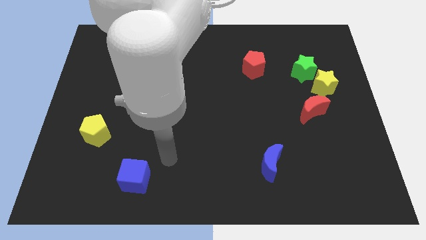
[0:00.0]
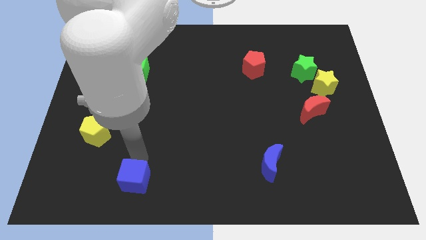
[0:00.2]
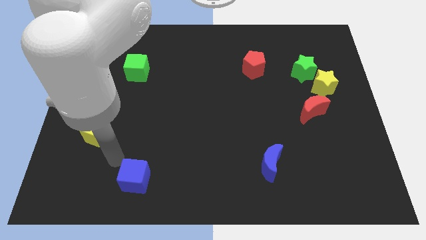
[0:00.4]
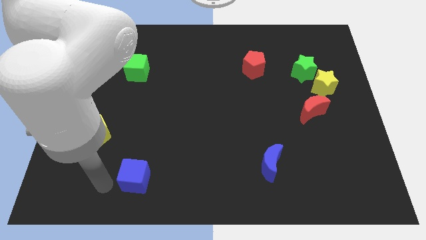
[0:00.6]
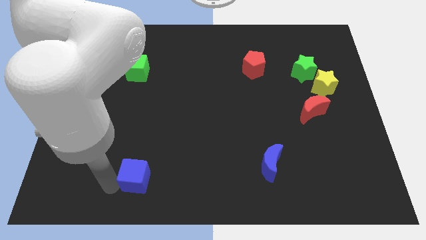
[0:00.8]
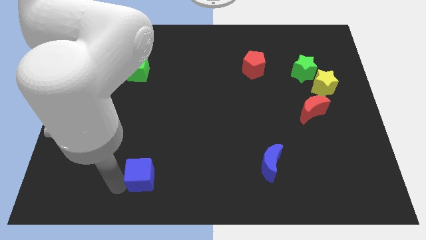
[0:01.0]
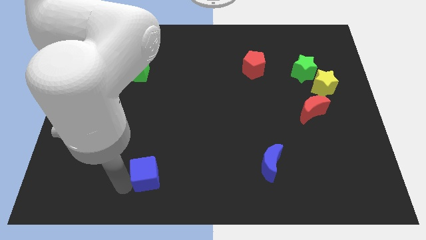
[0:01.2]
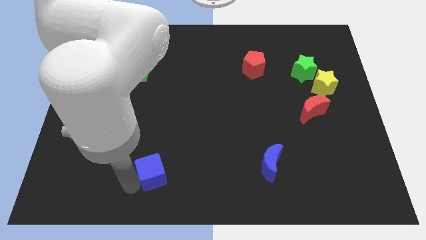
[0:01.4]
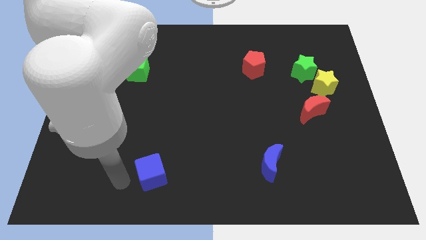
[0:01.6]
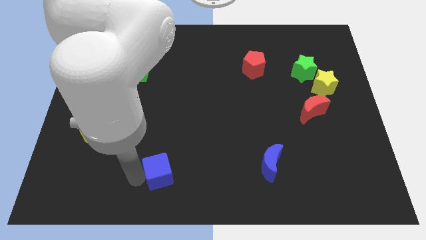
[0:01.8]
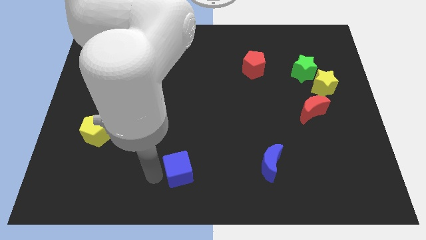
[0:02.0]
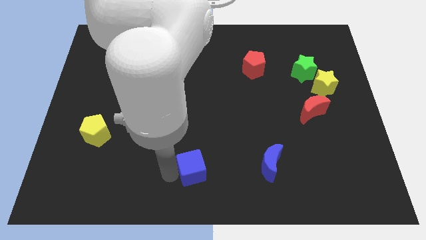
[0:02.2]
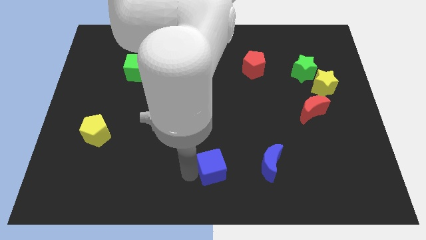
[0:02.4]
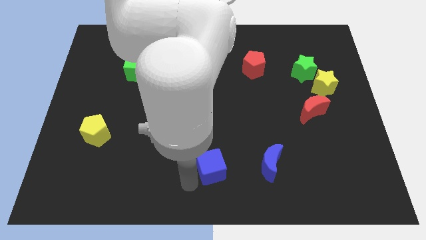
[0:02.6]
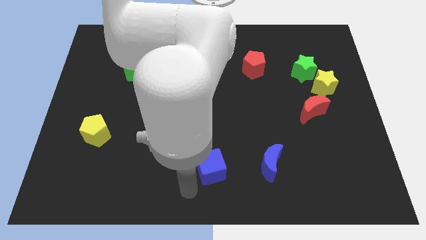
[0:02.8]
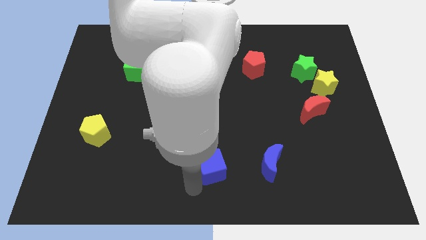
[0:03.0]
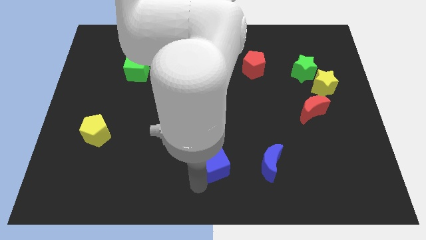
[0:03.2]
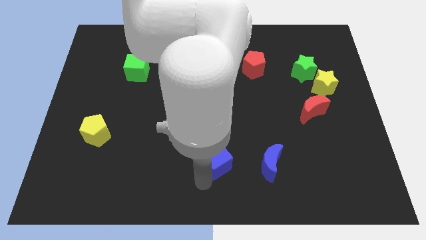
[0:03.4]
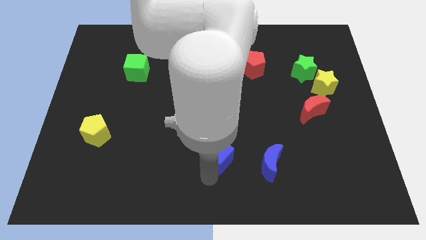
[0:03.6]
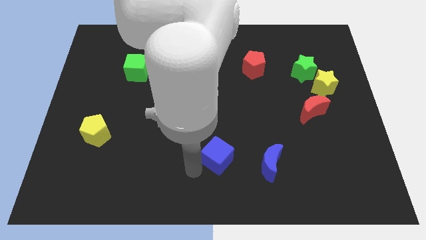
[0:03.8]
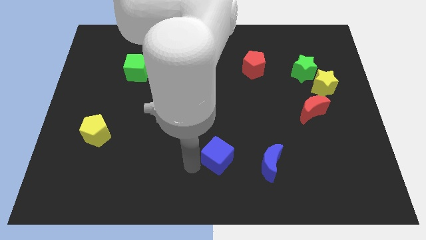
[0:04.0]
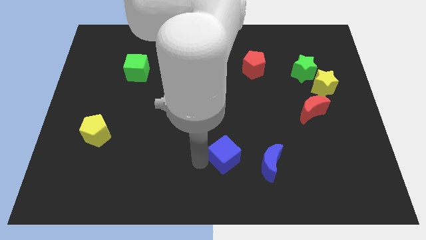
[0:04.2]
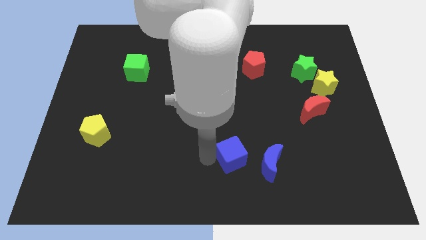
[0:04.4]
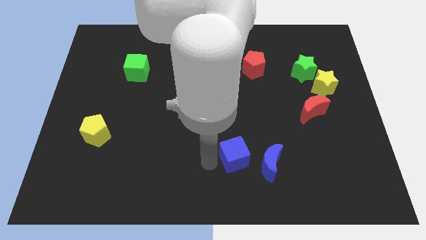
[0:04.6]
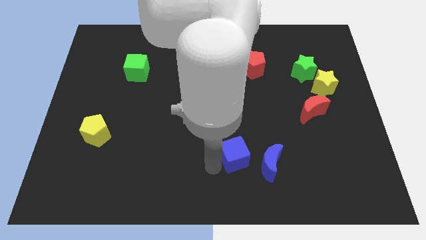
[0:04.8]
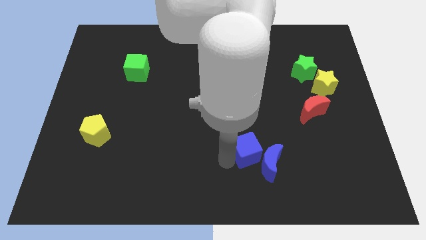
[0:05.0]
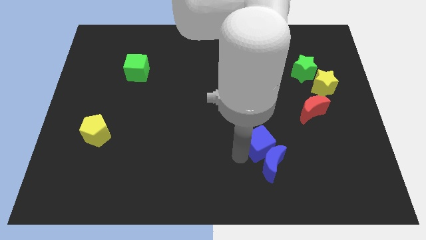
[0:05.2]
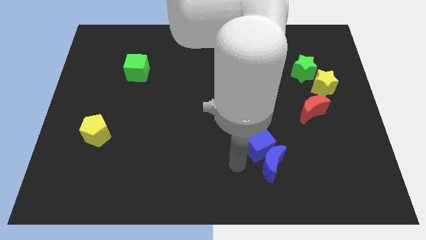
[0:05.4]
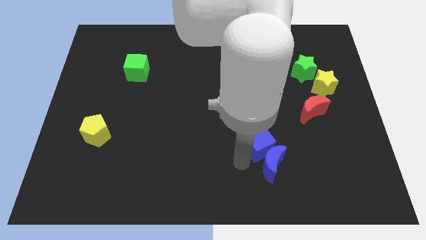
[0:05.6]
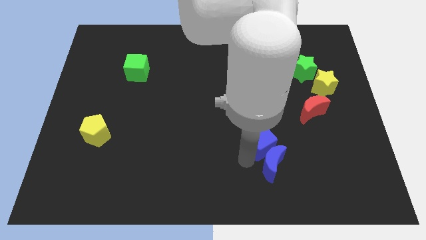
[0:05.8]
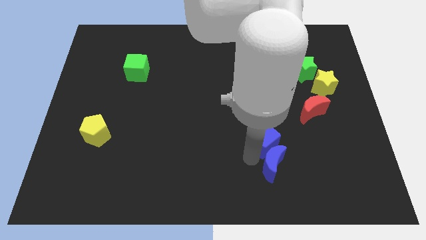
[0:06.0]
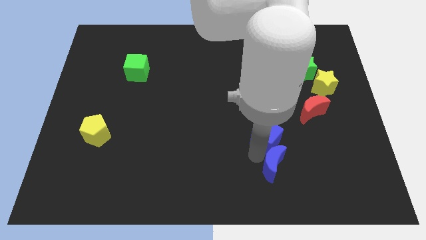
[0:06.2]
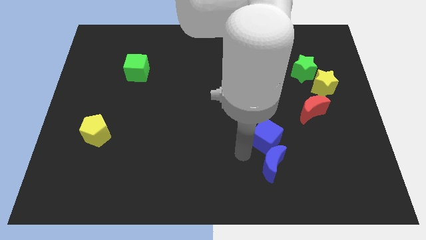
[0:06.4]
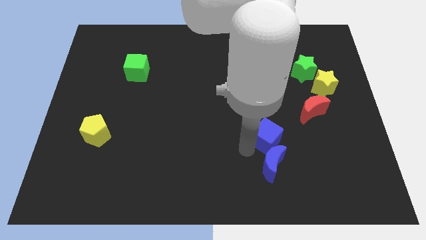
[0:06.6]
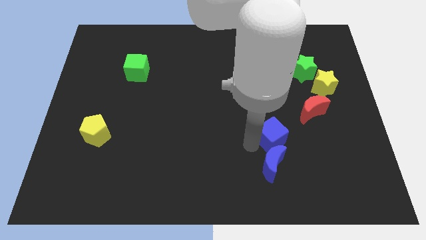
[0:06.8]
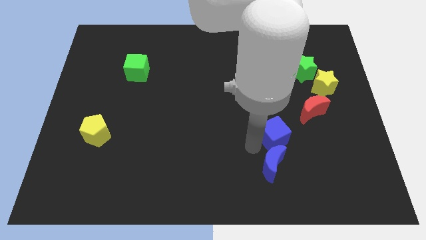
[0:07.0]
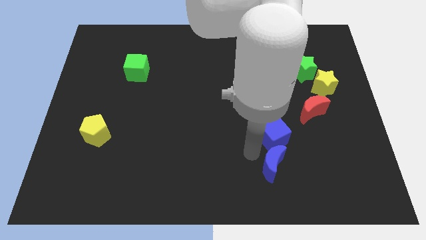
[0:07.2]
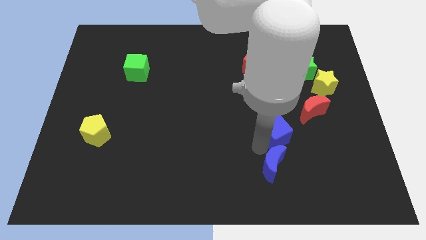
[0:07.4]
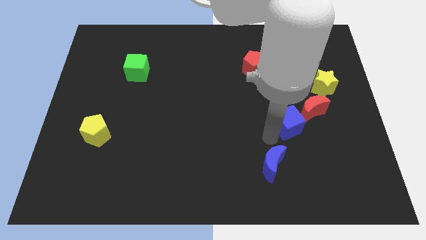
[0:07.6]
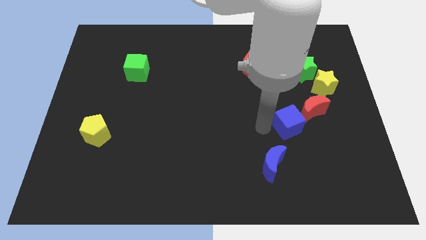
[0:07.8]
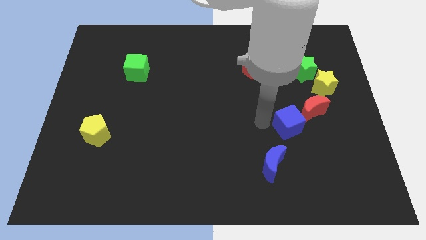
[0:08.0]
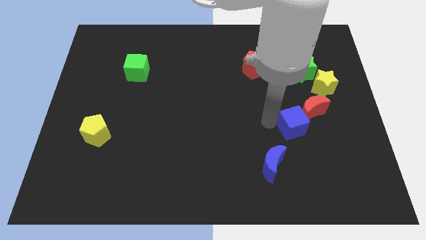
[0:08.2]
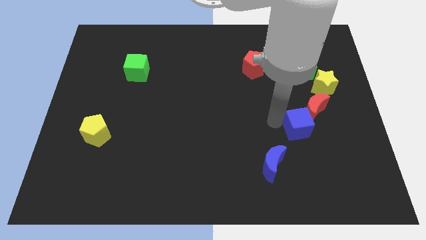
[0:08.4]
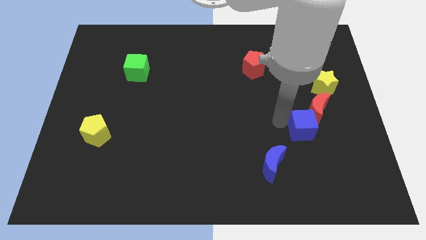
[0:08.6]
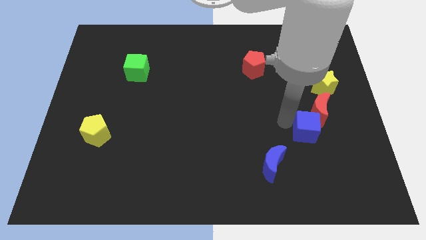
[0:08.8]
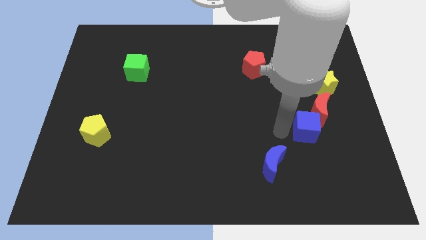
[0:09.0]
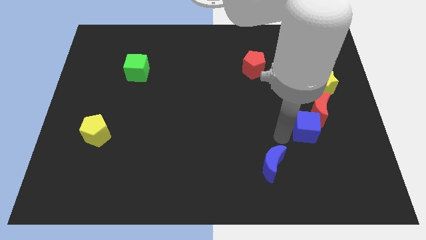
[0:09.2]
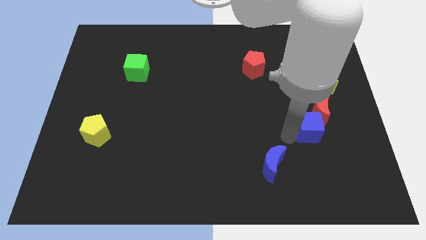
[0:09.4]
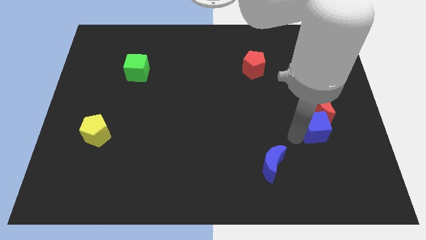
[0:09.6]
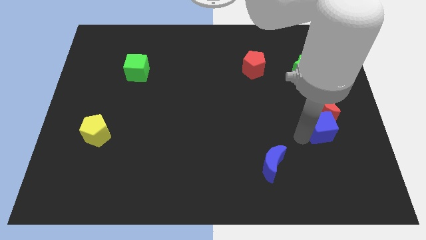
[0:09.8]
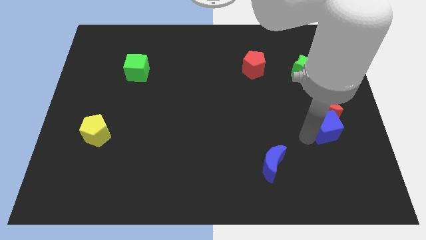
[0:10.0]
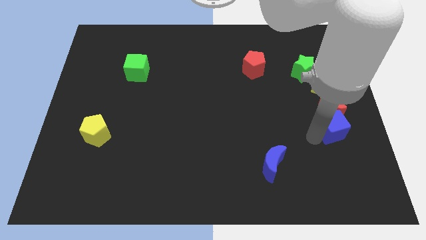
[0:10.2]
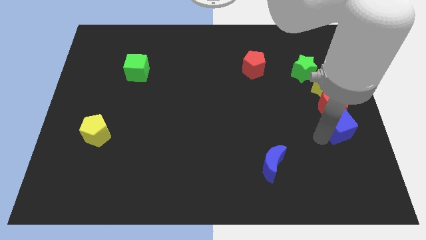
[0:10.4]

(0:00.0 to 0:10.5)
slide the blue cube to the center right

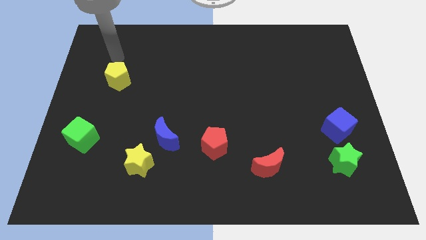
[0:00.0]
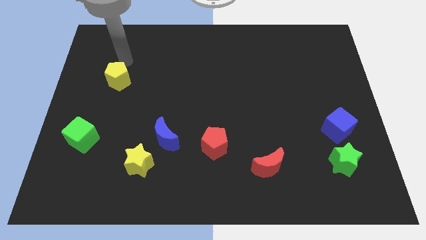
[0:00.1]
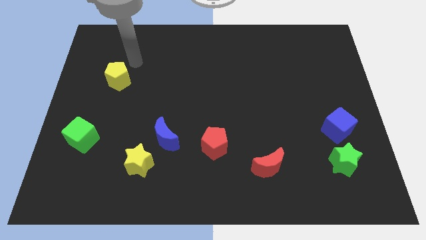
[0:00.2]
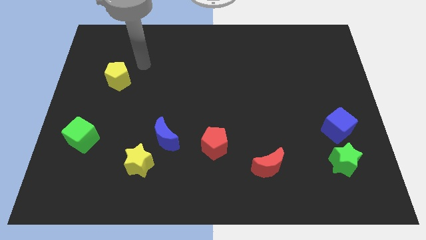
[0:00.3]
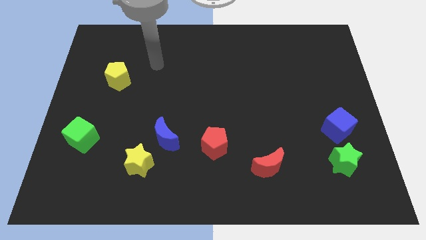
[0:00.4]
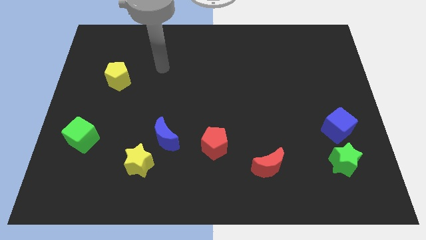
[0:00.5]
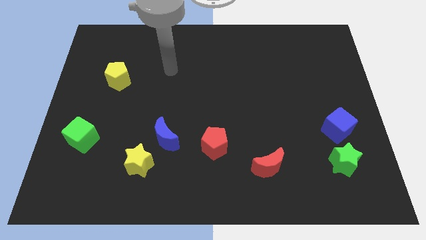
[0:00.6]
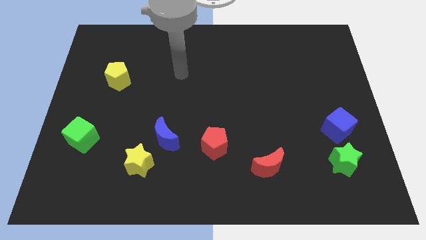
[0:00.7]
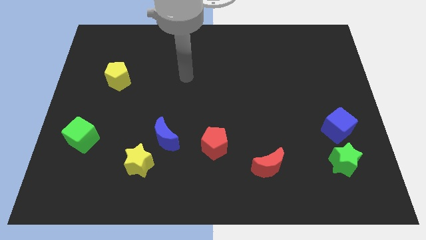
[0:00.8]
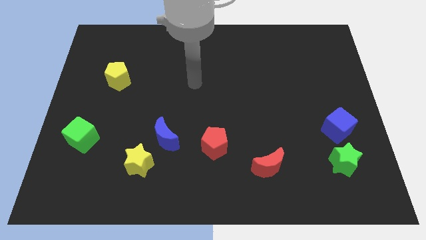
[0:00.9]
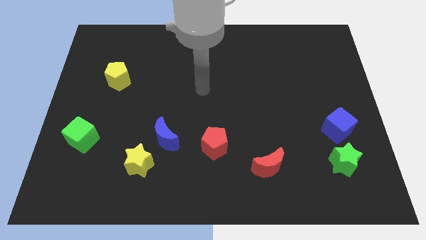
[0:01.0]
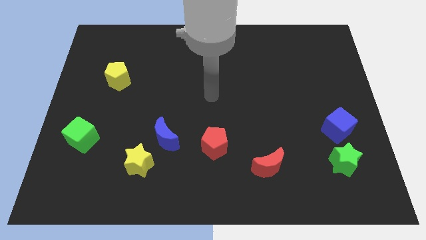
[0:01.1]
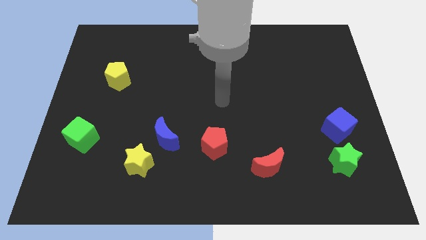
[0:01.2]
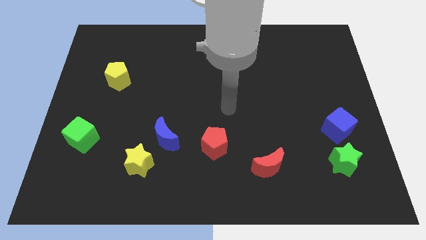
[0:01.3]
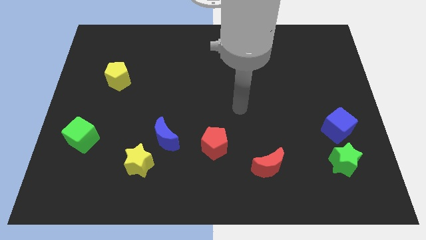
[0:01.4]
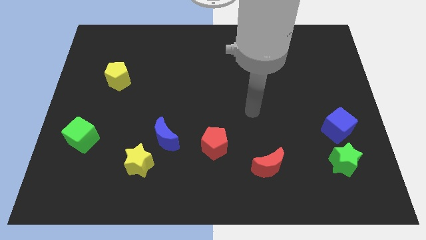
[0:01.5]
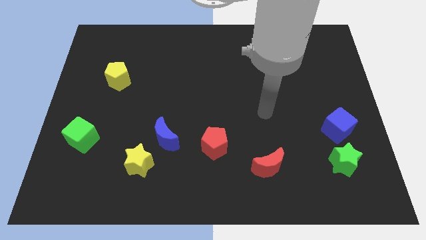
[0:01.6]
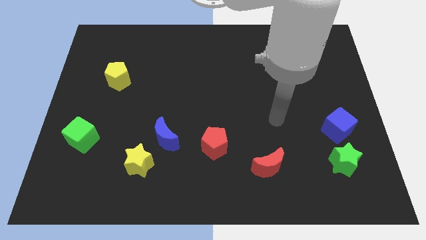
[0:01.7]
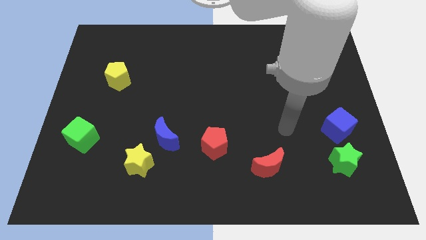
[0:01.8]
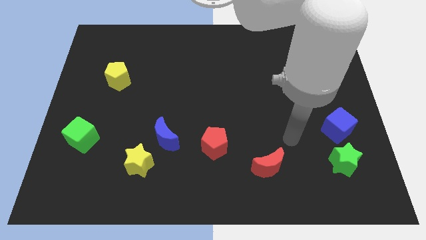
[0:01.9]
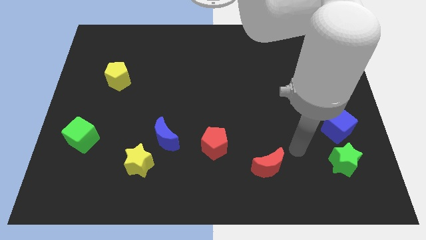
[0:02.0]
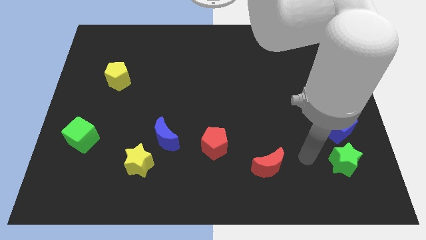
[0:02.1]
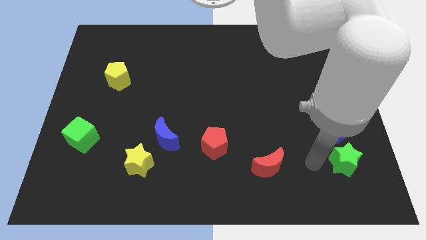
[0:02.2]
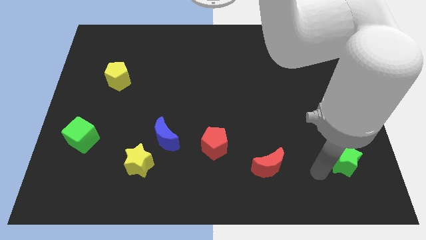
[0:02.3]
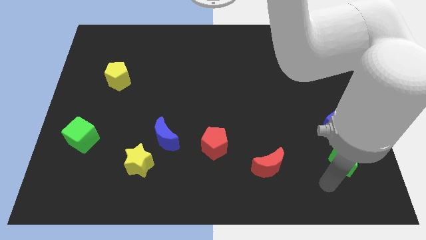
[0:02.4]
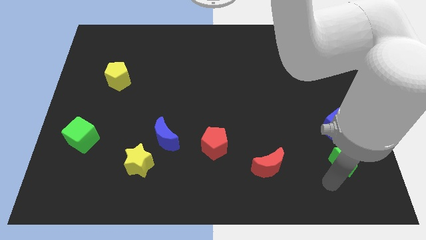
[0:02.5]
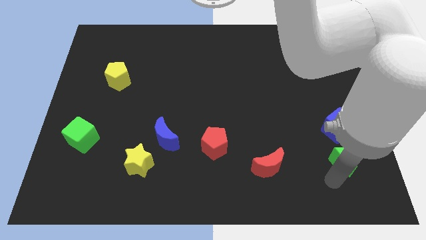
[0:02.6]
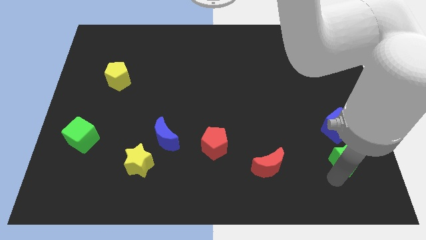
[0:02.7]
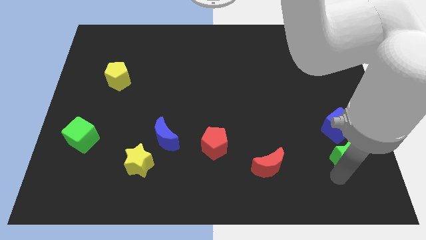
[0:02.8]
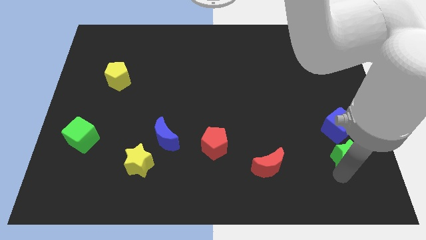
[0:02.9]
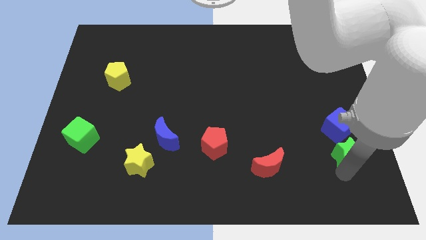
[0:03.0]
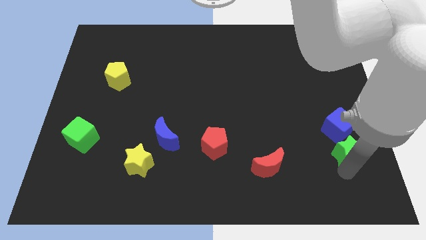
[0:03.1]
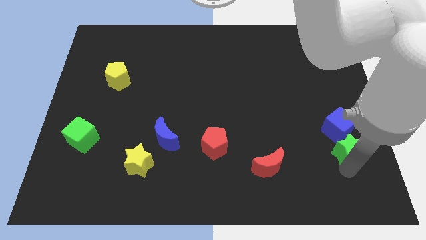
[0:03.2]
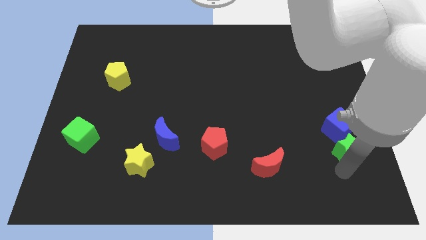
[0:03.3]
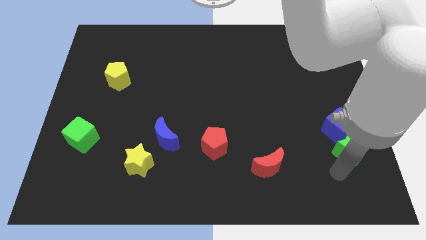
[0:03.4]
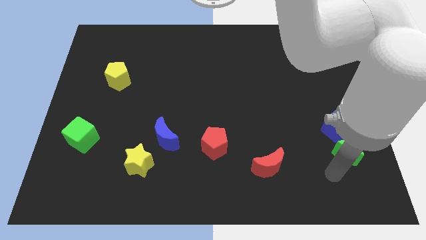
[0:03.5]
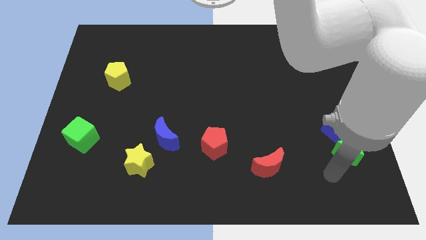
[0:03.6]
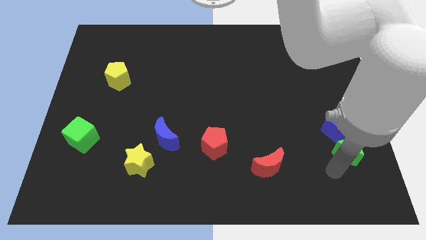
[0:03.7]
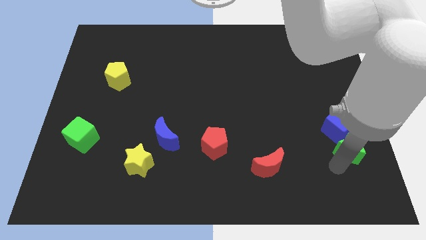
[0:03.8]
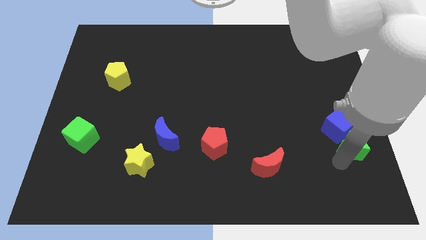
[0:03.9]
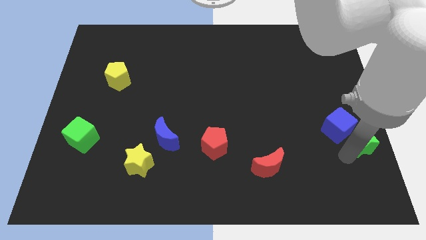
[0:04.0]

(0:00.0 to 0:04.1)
push the green star to the right side of the board
